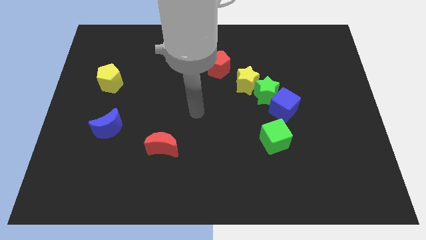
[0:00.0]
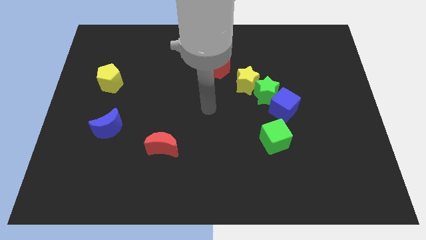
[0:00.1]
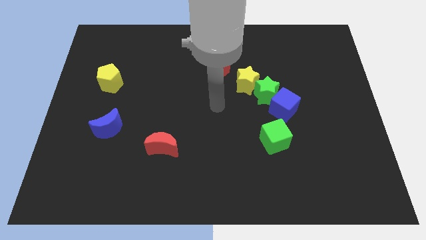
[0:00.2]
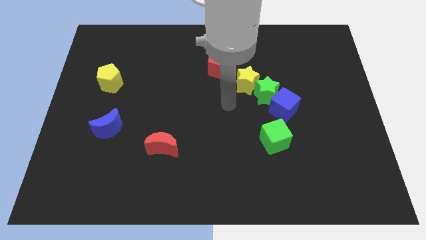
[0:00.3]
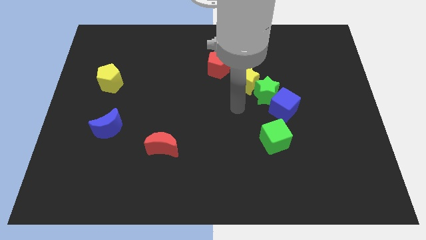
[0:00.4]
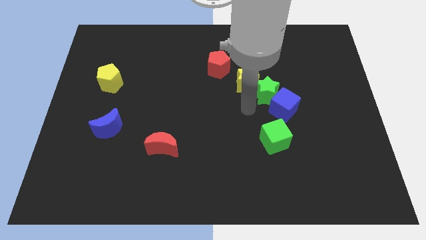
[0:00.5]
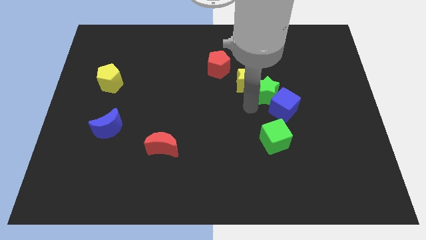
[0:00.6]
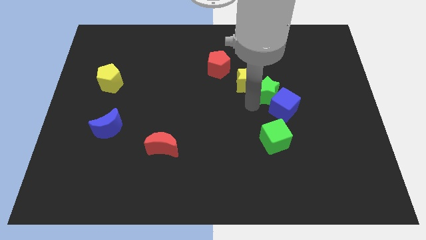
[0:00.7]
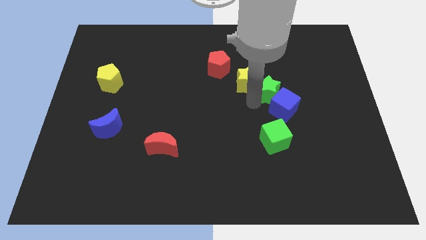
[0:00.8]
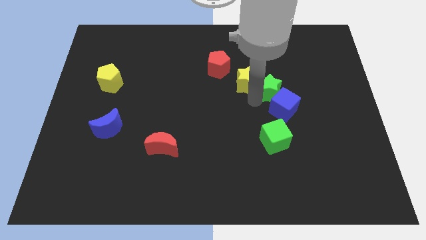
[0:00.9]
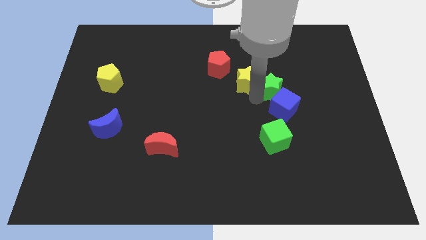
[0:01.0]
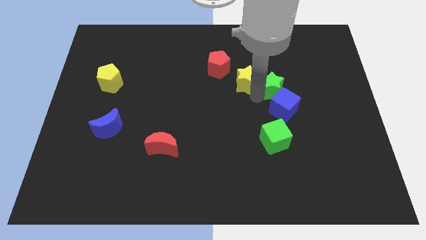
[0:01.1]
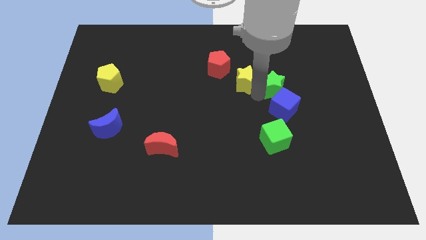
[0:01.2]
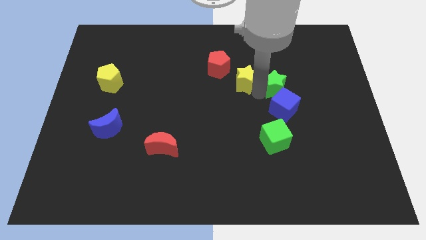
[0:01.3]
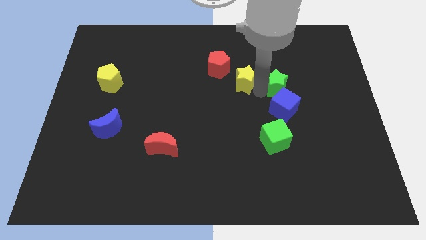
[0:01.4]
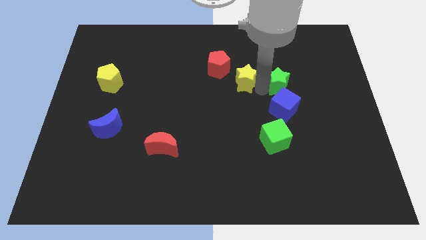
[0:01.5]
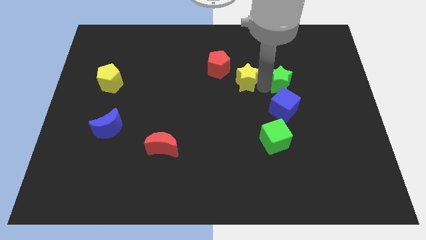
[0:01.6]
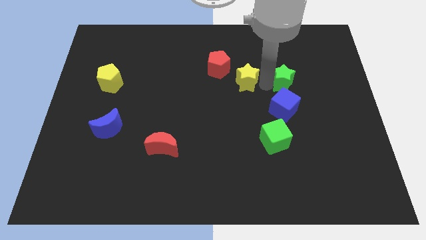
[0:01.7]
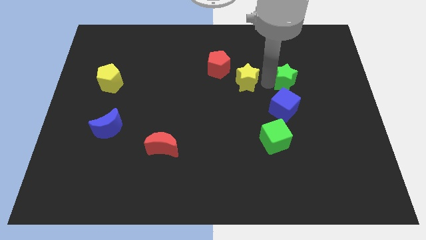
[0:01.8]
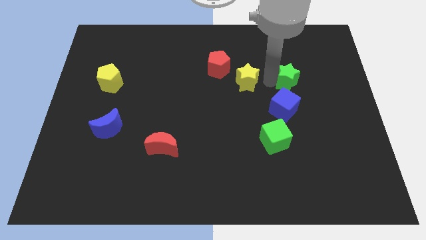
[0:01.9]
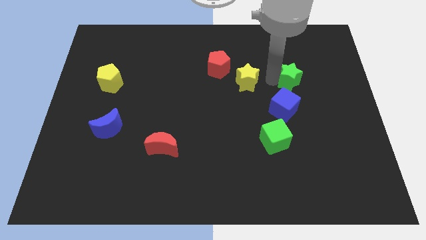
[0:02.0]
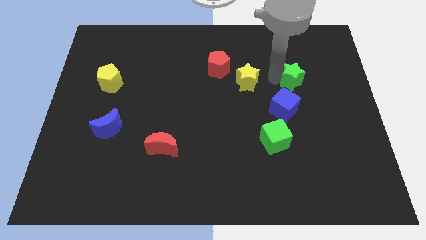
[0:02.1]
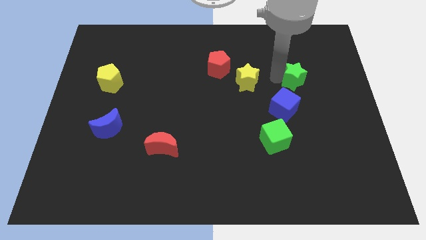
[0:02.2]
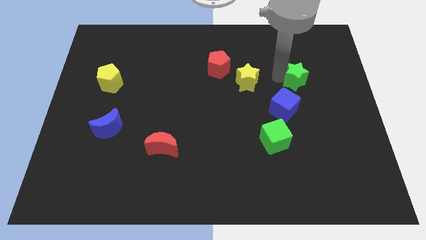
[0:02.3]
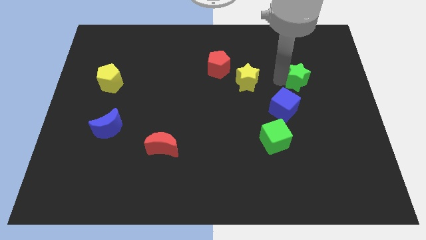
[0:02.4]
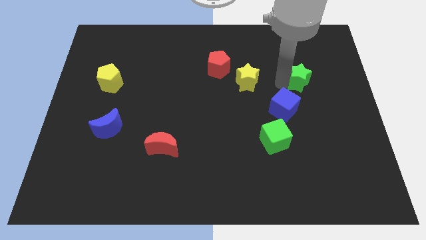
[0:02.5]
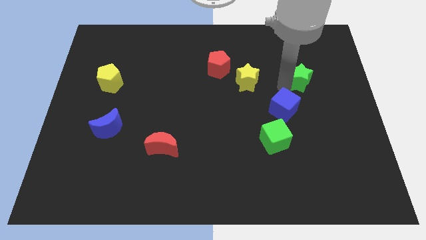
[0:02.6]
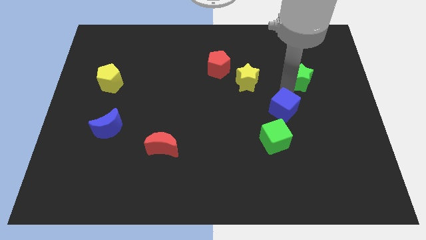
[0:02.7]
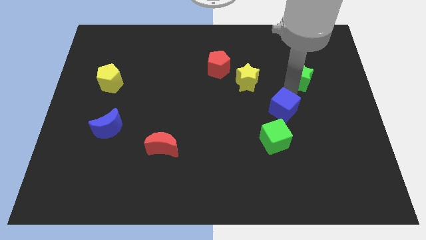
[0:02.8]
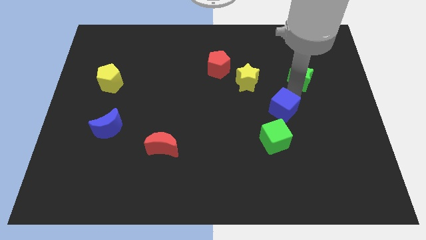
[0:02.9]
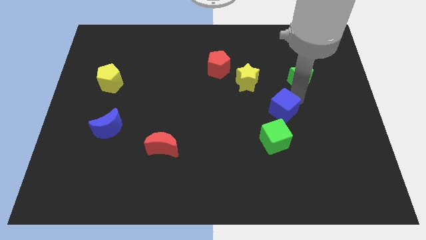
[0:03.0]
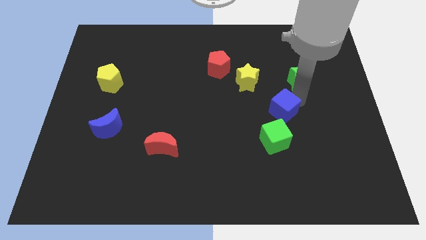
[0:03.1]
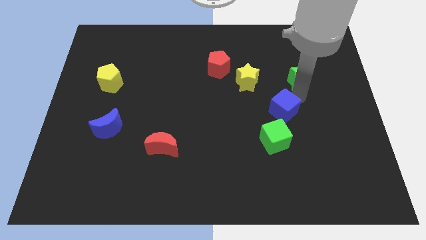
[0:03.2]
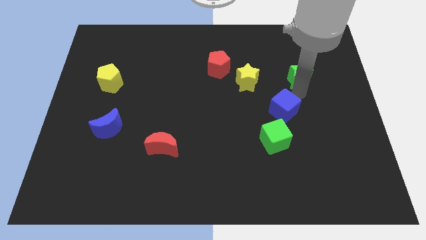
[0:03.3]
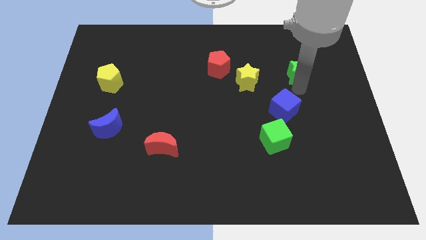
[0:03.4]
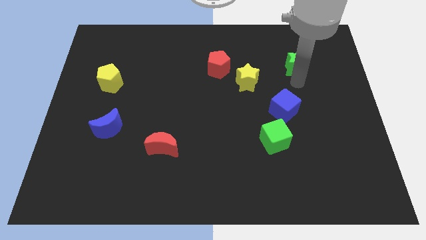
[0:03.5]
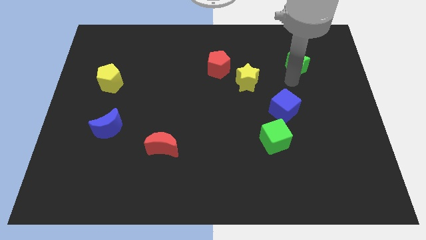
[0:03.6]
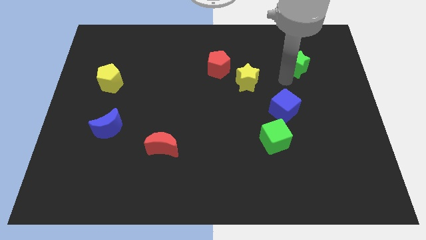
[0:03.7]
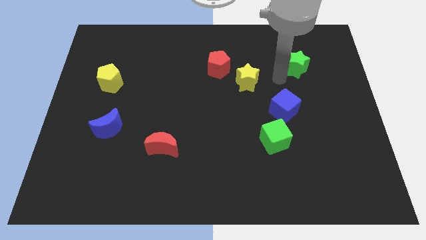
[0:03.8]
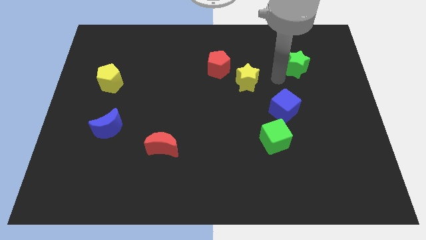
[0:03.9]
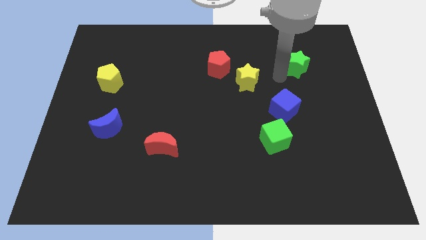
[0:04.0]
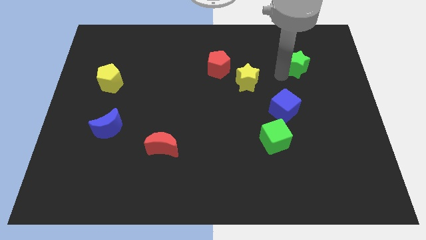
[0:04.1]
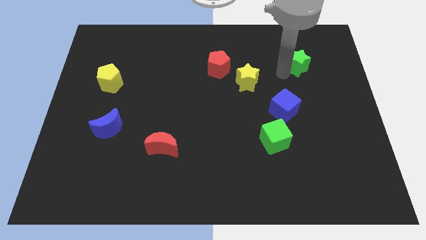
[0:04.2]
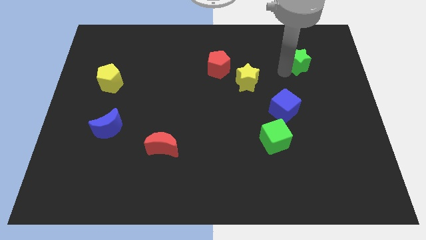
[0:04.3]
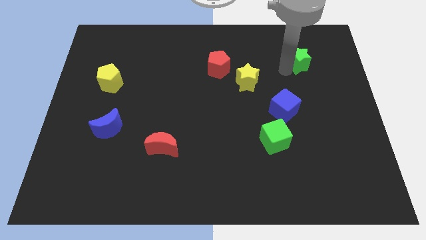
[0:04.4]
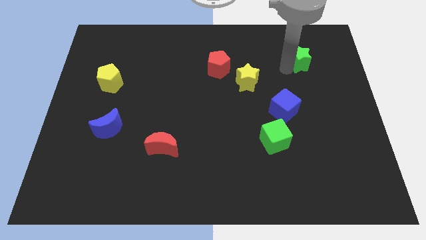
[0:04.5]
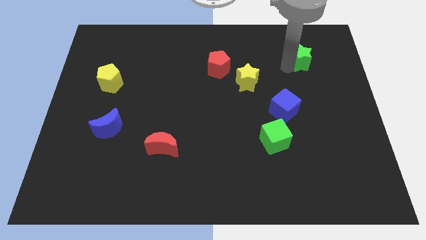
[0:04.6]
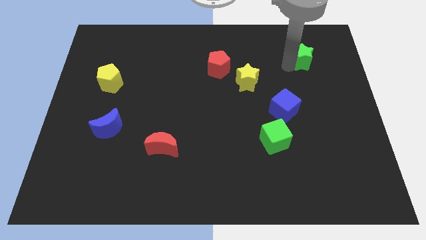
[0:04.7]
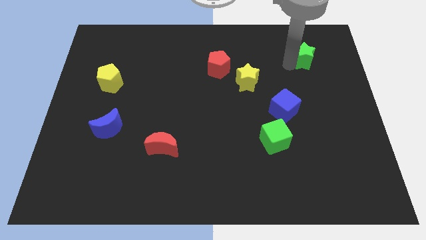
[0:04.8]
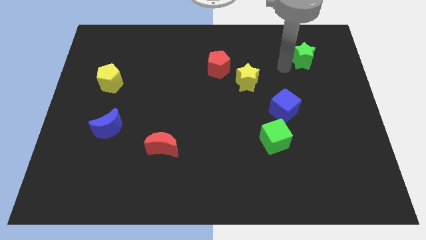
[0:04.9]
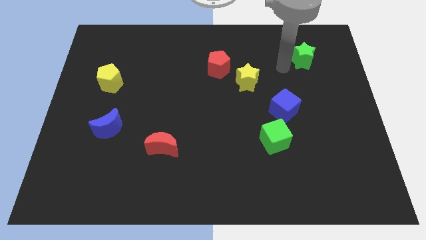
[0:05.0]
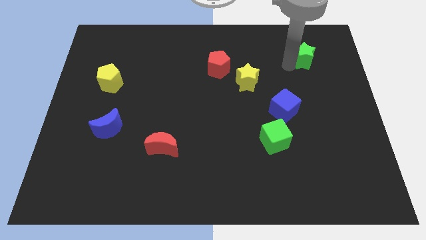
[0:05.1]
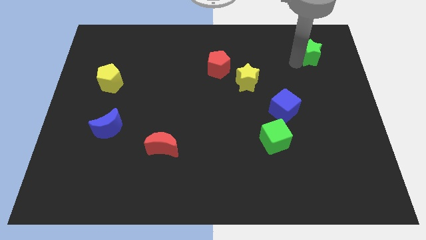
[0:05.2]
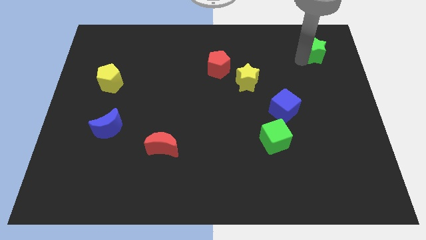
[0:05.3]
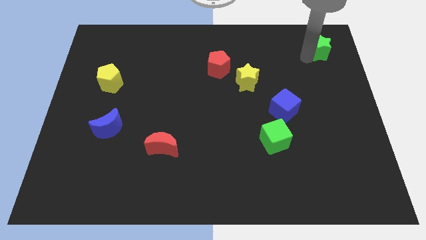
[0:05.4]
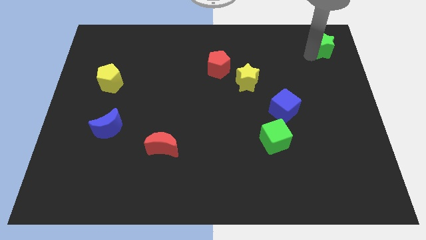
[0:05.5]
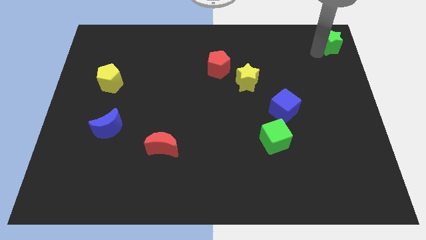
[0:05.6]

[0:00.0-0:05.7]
move the green star to the top right
